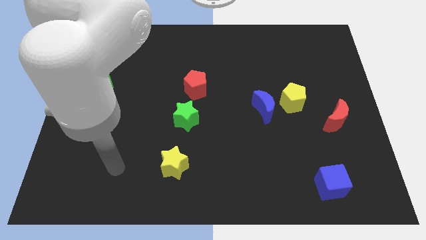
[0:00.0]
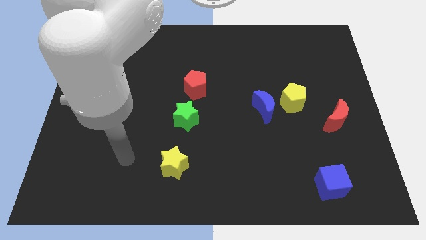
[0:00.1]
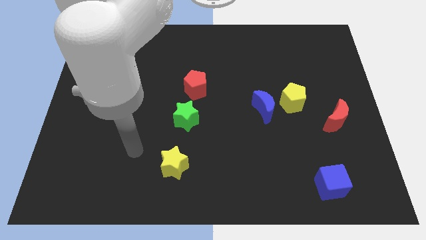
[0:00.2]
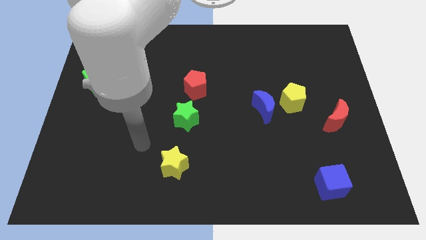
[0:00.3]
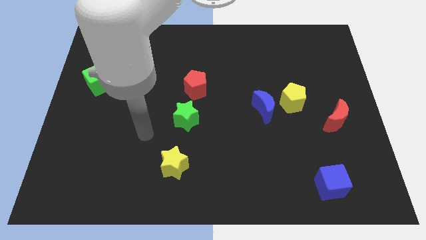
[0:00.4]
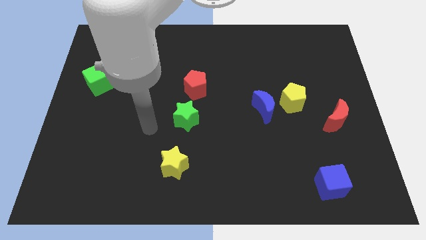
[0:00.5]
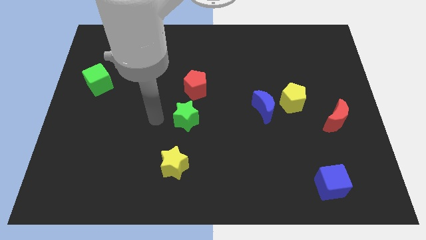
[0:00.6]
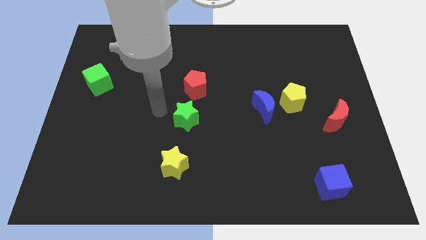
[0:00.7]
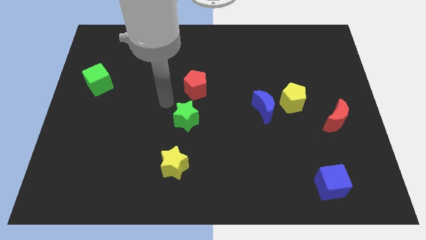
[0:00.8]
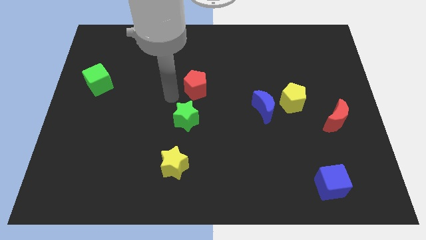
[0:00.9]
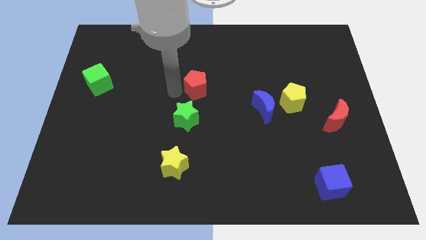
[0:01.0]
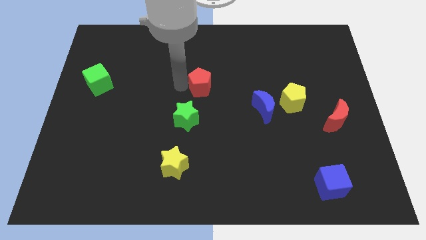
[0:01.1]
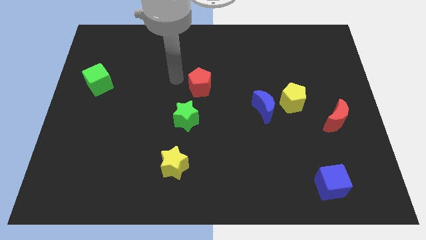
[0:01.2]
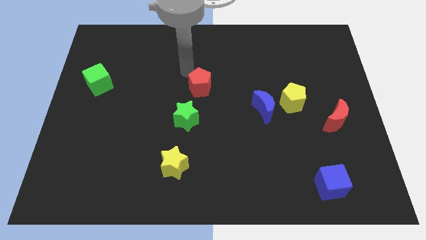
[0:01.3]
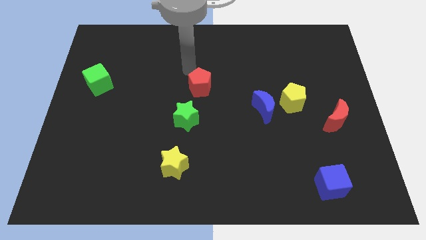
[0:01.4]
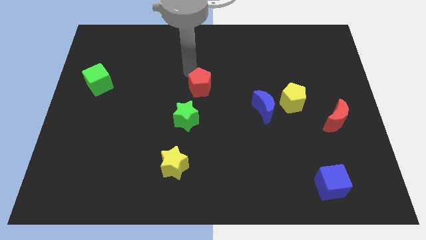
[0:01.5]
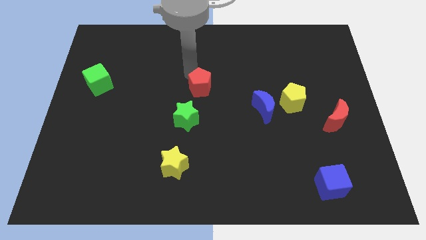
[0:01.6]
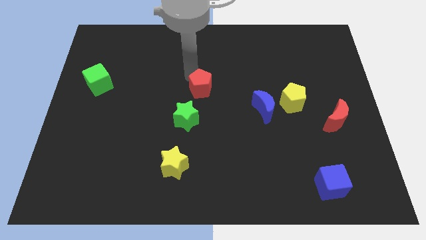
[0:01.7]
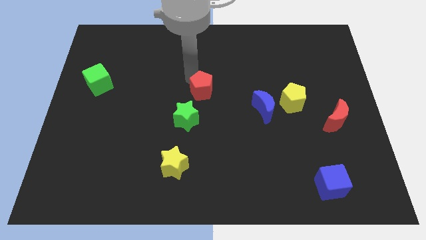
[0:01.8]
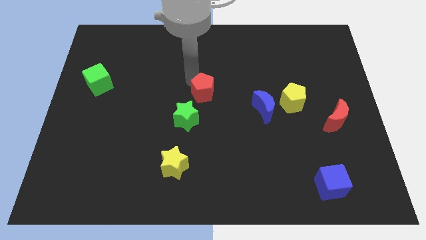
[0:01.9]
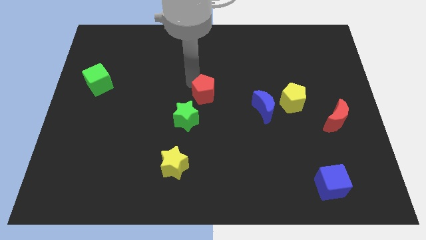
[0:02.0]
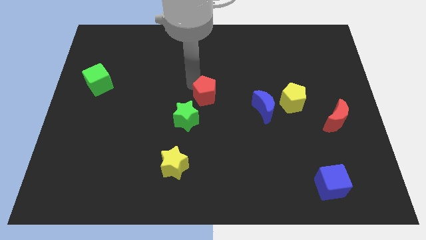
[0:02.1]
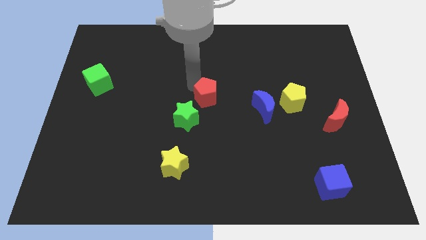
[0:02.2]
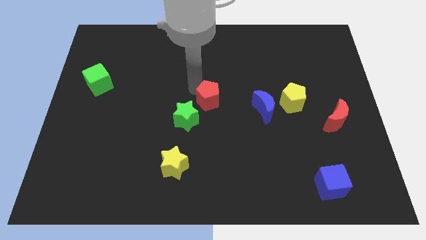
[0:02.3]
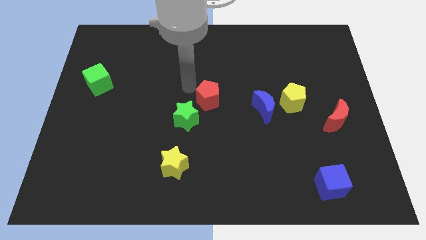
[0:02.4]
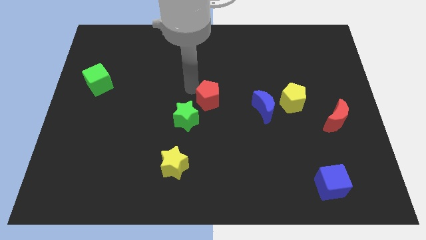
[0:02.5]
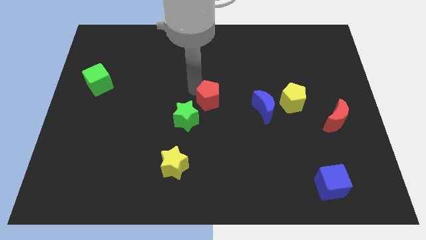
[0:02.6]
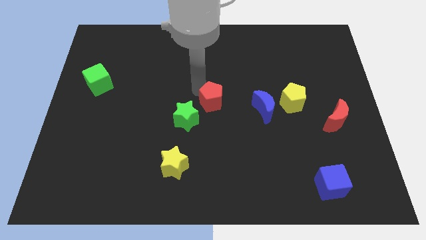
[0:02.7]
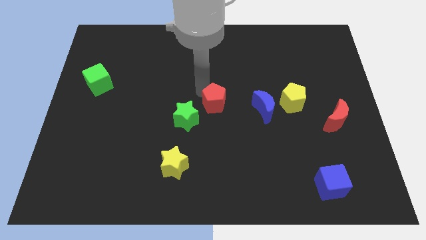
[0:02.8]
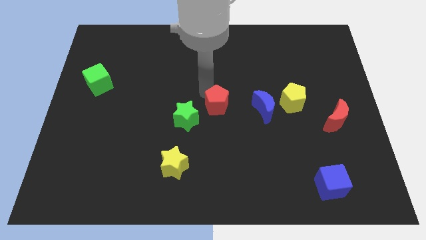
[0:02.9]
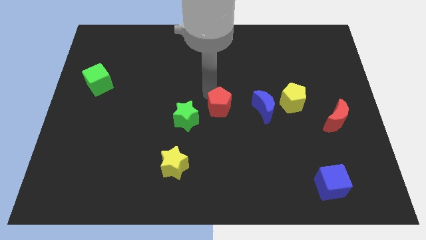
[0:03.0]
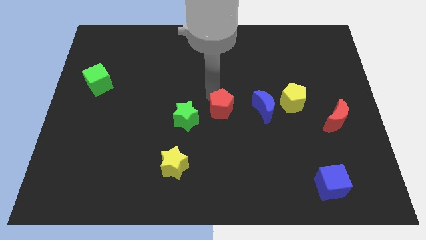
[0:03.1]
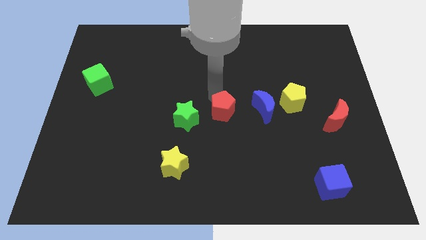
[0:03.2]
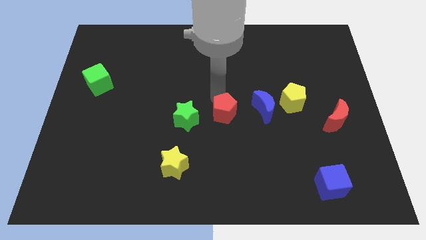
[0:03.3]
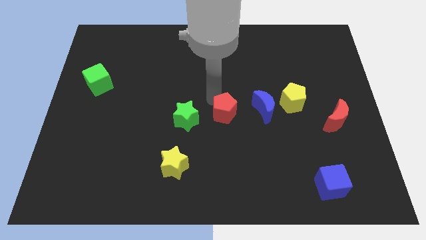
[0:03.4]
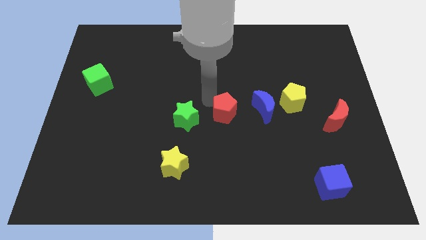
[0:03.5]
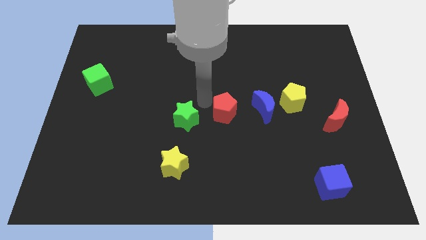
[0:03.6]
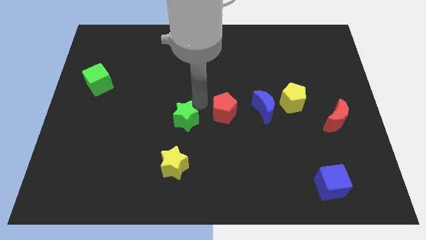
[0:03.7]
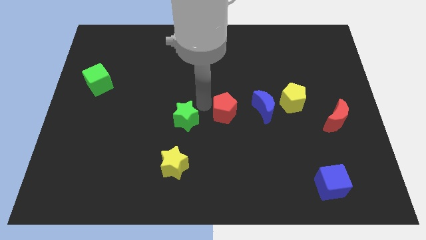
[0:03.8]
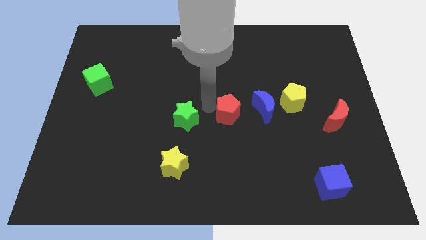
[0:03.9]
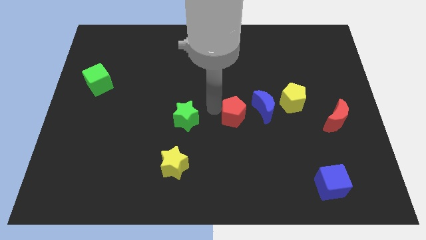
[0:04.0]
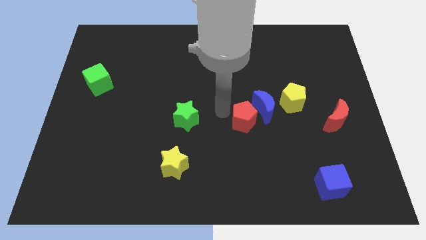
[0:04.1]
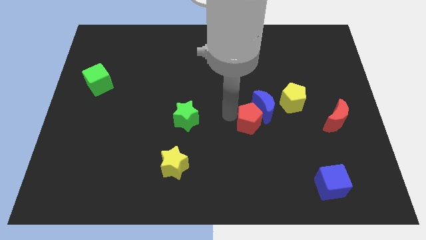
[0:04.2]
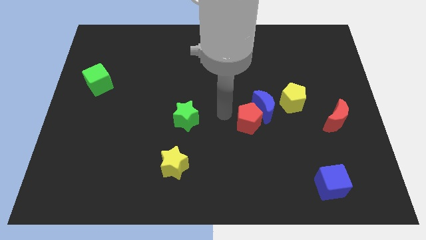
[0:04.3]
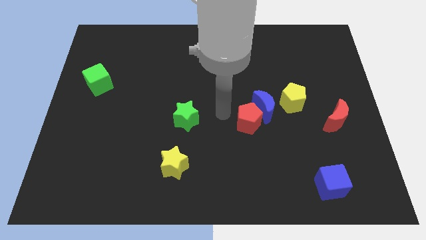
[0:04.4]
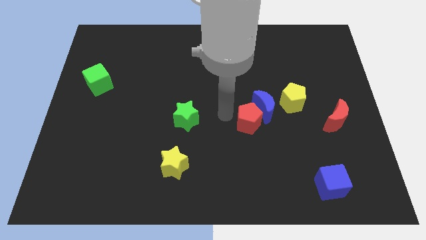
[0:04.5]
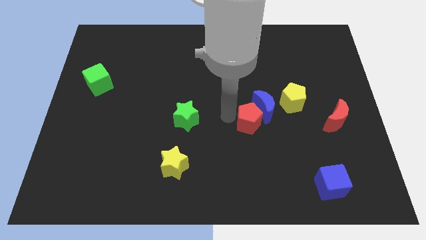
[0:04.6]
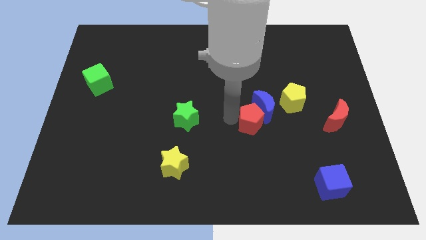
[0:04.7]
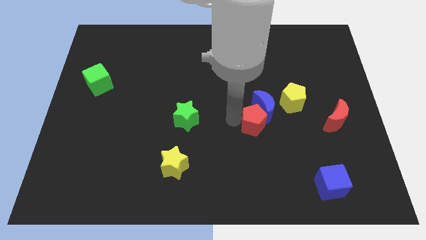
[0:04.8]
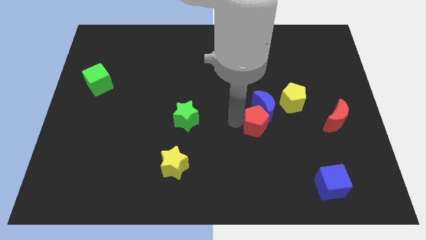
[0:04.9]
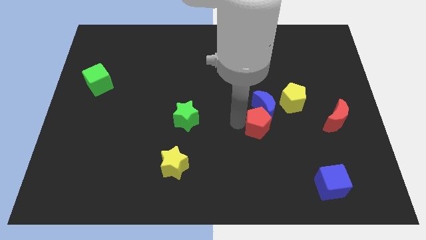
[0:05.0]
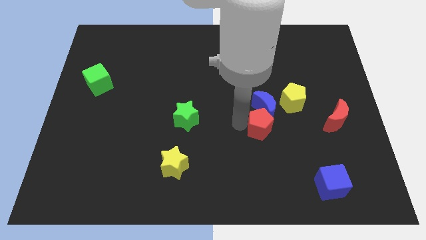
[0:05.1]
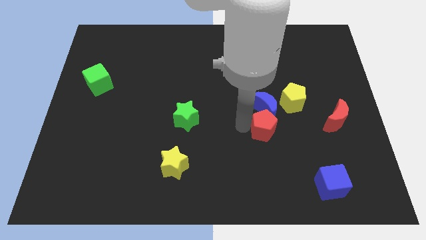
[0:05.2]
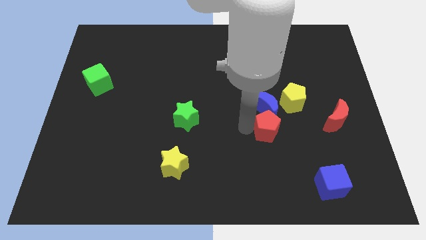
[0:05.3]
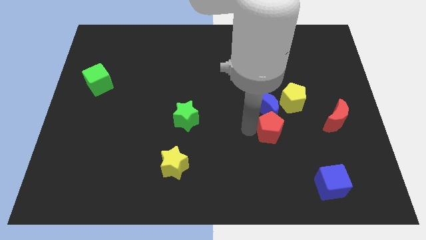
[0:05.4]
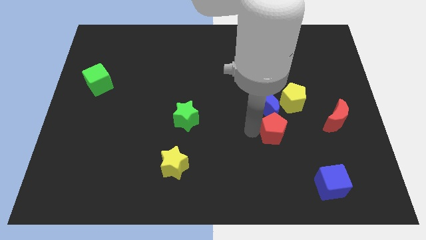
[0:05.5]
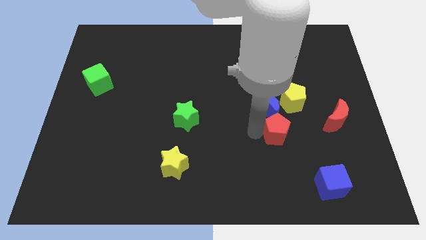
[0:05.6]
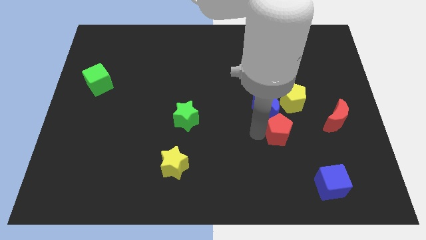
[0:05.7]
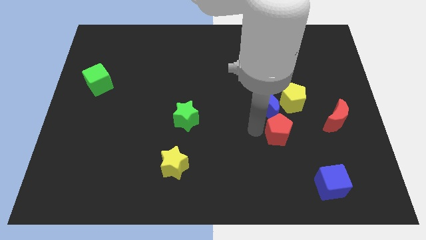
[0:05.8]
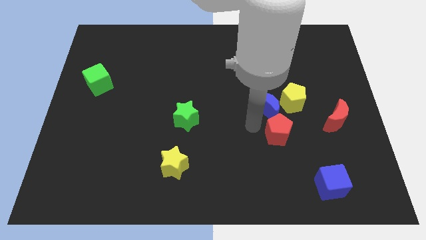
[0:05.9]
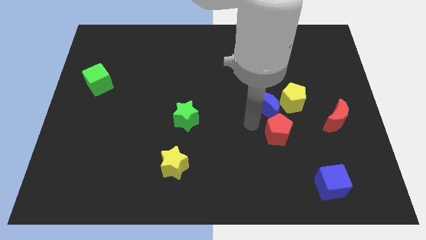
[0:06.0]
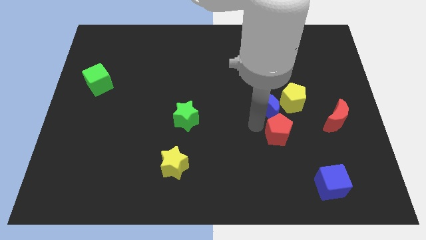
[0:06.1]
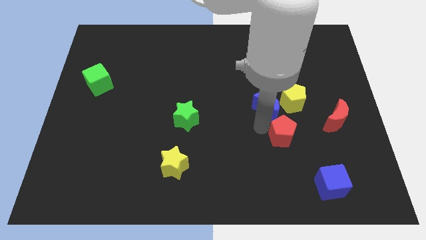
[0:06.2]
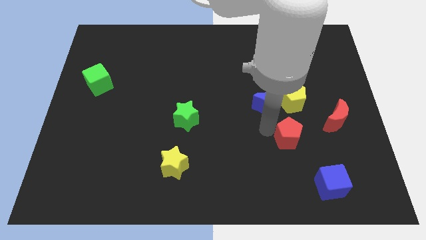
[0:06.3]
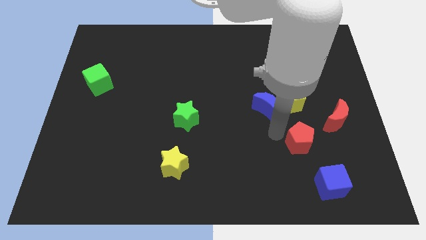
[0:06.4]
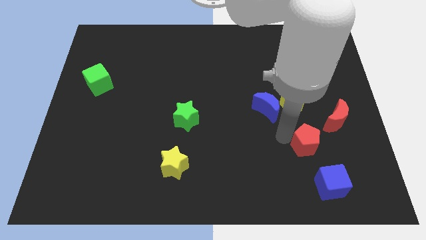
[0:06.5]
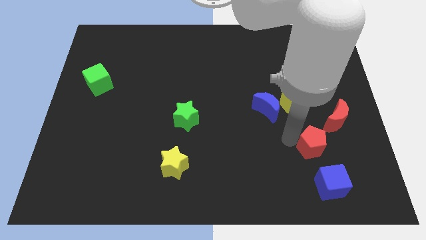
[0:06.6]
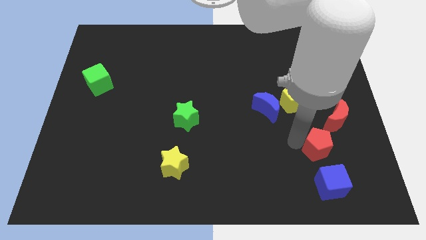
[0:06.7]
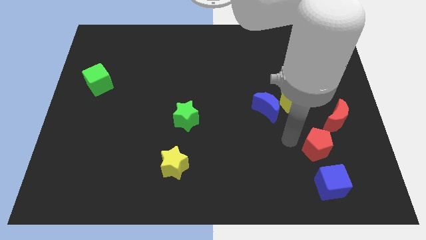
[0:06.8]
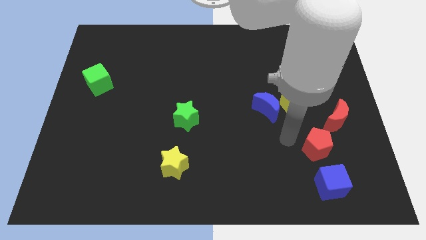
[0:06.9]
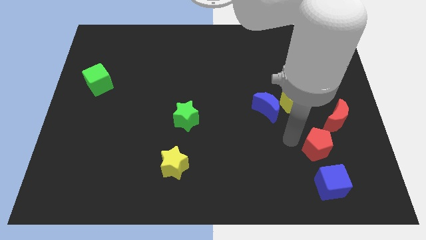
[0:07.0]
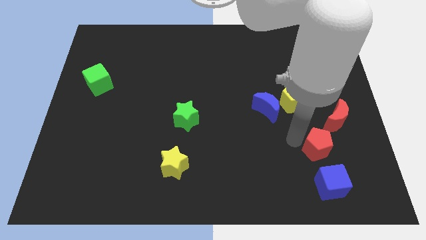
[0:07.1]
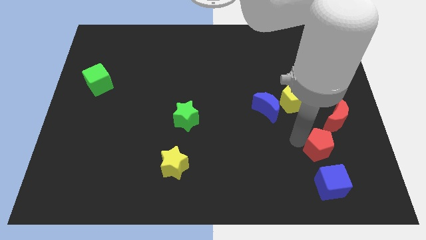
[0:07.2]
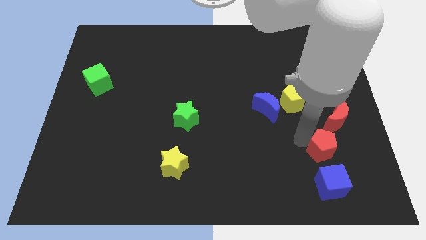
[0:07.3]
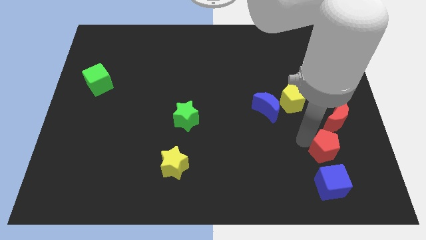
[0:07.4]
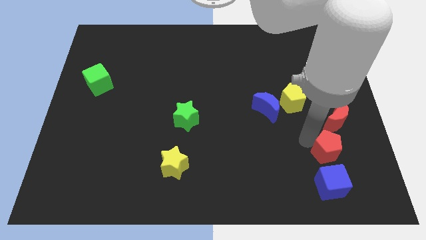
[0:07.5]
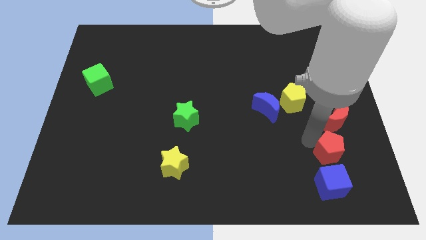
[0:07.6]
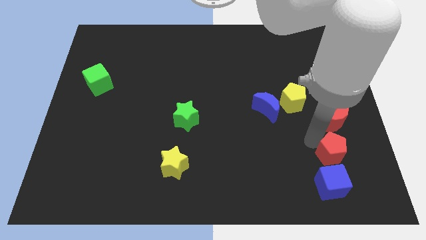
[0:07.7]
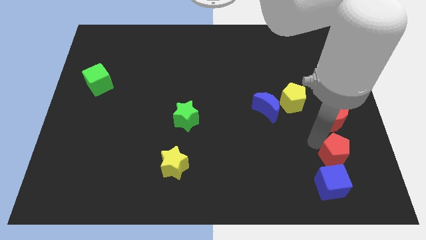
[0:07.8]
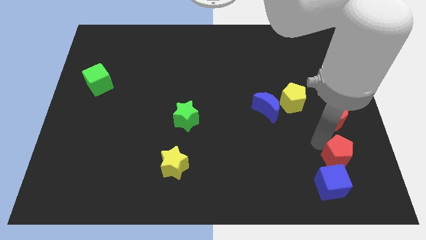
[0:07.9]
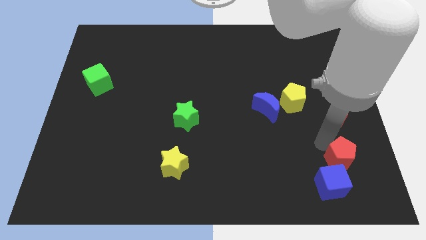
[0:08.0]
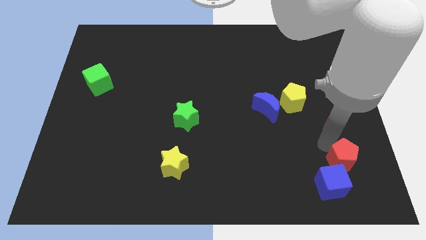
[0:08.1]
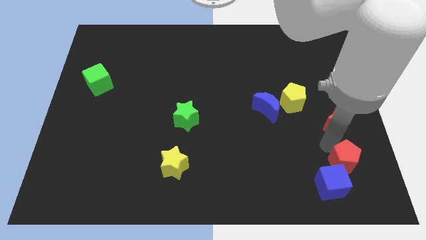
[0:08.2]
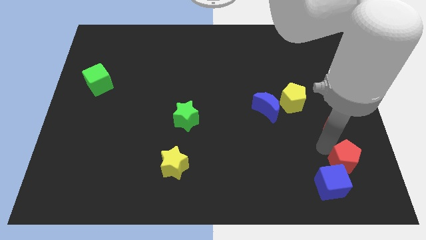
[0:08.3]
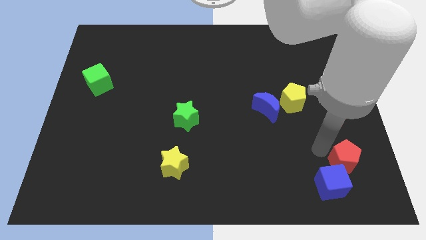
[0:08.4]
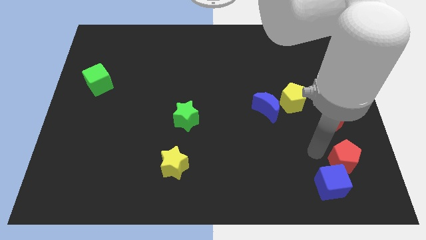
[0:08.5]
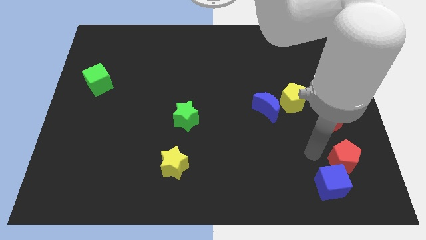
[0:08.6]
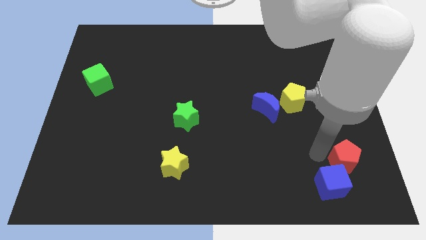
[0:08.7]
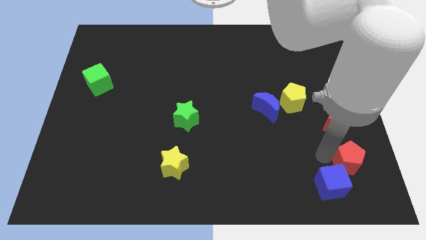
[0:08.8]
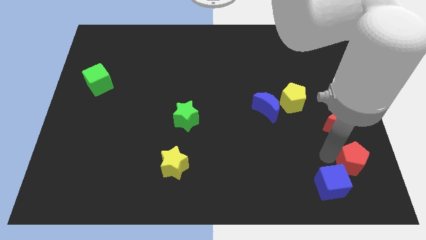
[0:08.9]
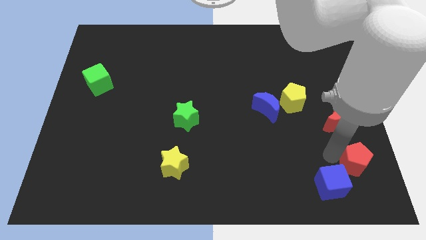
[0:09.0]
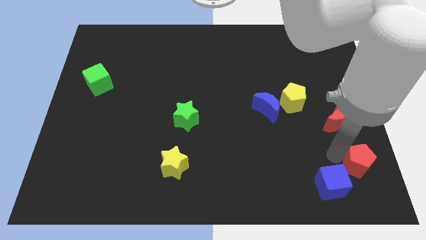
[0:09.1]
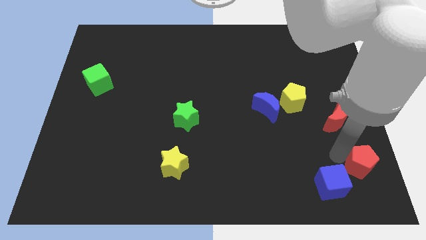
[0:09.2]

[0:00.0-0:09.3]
move the red pentagon to the bottom right of the board
